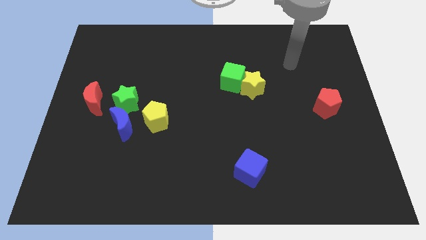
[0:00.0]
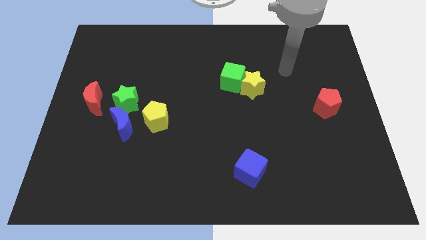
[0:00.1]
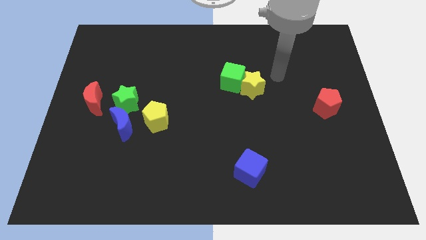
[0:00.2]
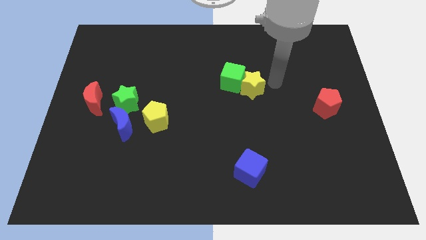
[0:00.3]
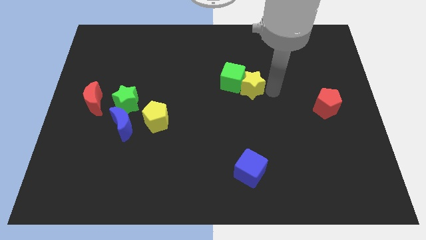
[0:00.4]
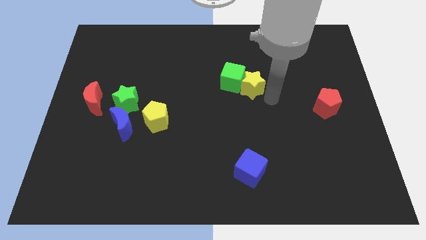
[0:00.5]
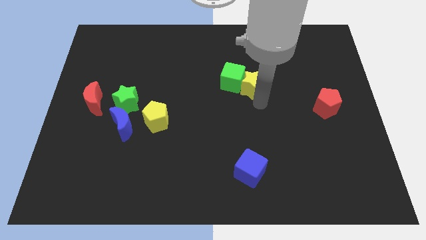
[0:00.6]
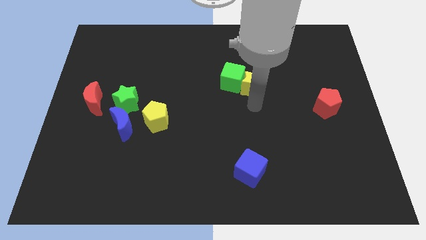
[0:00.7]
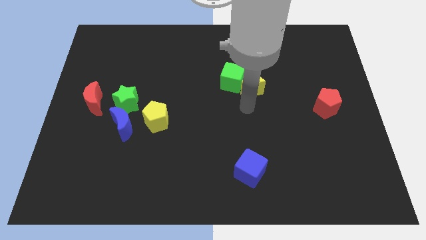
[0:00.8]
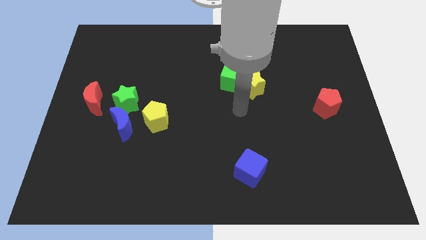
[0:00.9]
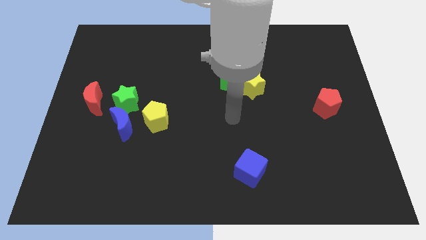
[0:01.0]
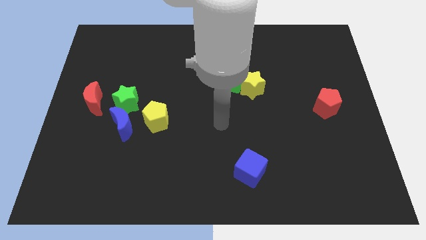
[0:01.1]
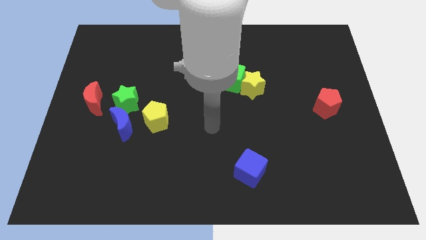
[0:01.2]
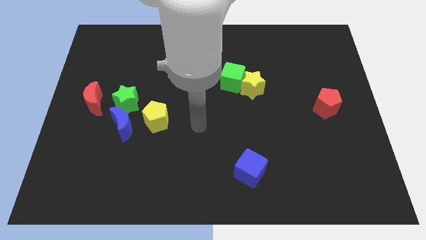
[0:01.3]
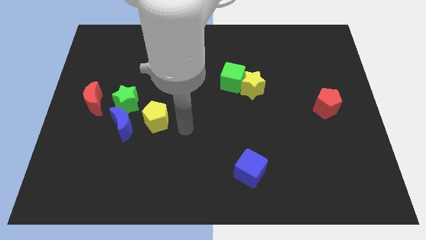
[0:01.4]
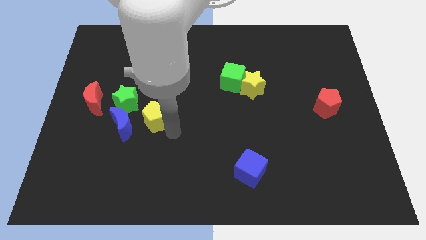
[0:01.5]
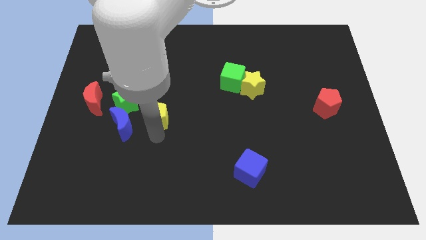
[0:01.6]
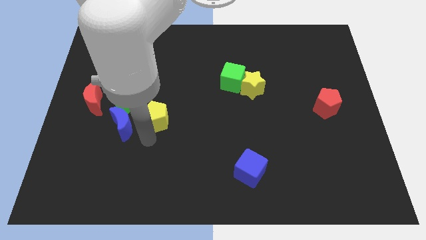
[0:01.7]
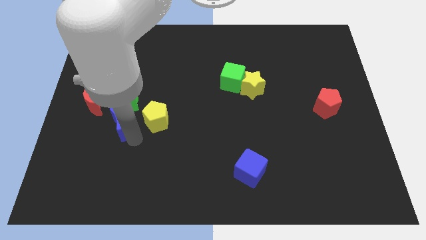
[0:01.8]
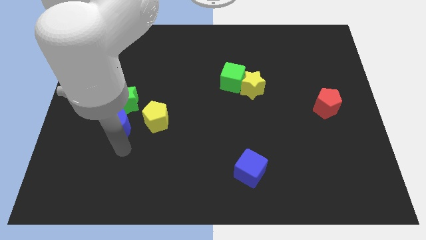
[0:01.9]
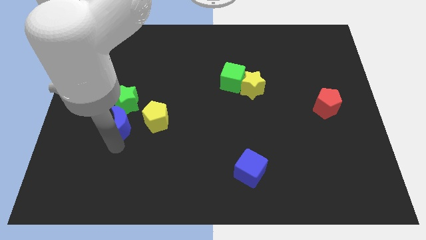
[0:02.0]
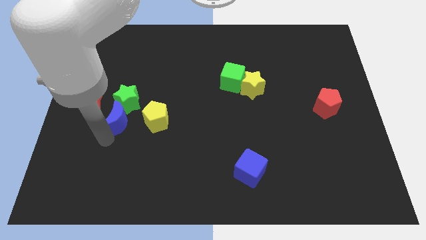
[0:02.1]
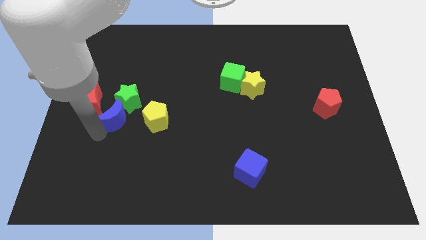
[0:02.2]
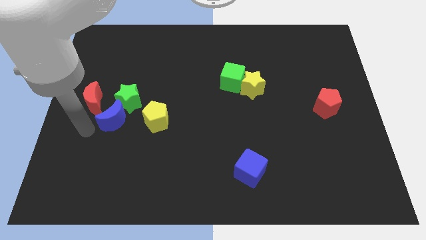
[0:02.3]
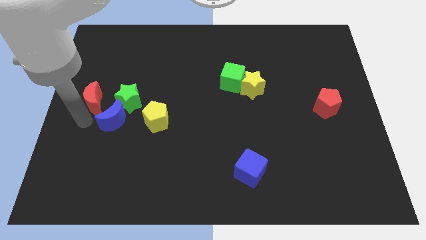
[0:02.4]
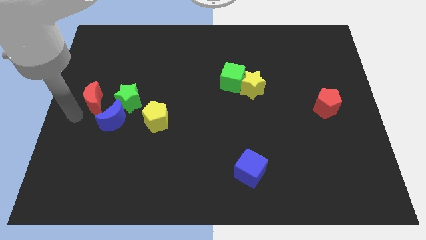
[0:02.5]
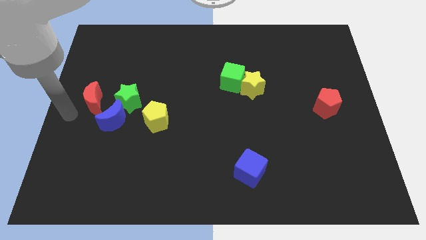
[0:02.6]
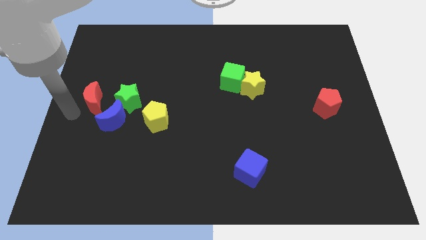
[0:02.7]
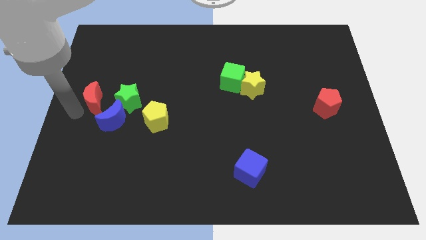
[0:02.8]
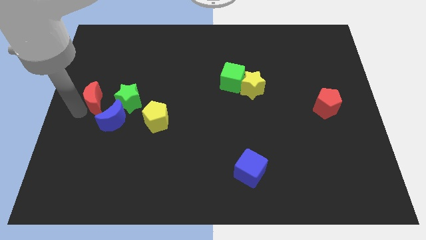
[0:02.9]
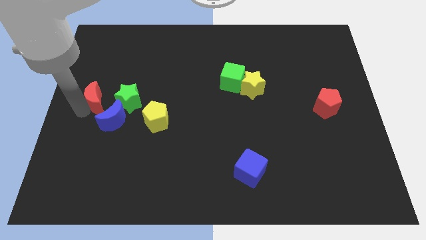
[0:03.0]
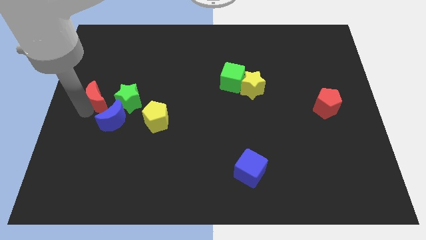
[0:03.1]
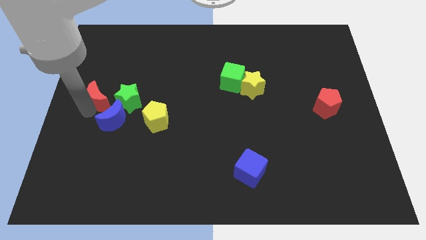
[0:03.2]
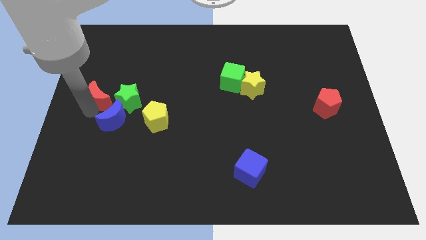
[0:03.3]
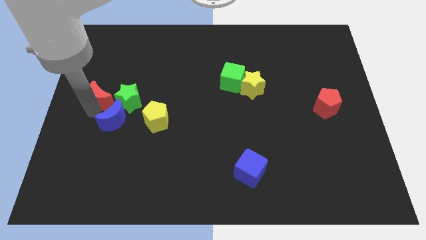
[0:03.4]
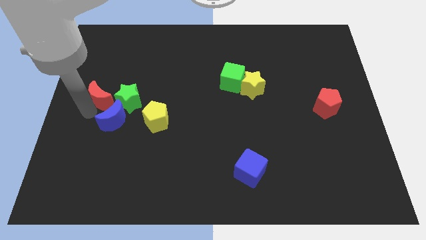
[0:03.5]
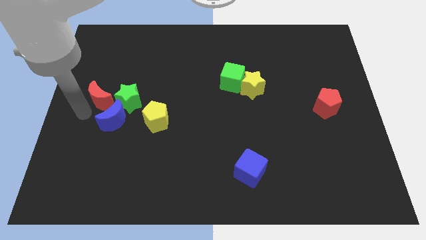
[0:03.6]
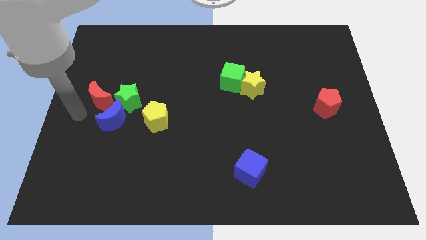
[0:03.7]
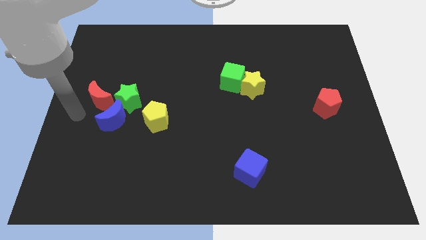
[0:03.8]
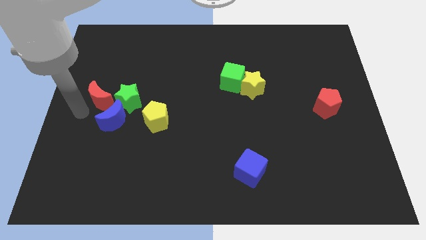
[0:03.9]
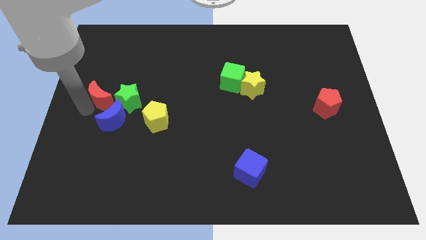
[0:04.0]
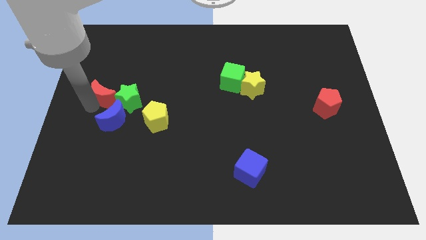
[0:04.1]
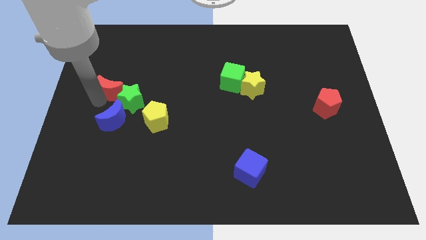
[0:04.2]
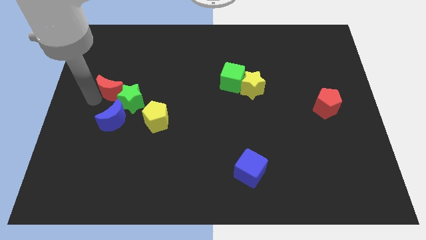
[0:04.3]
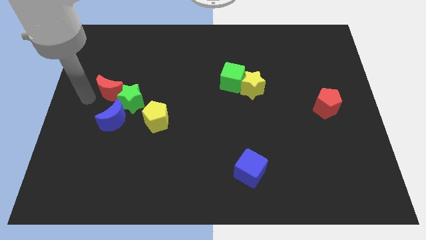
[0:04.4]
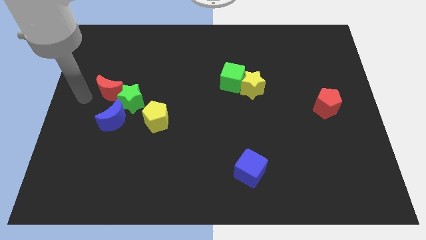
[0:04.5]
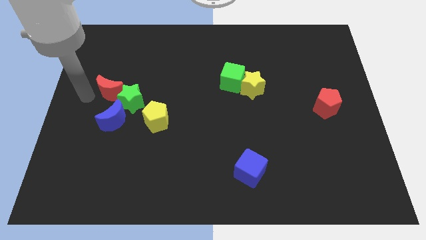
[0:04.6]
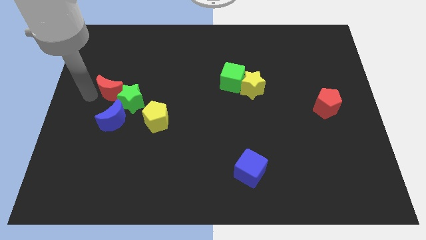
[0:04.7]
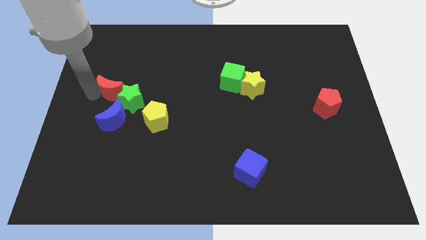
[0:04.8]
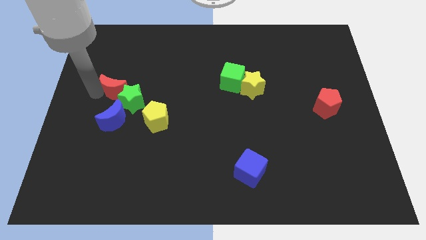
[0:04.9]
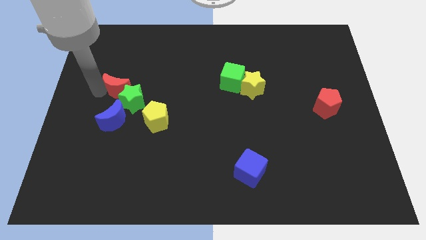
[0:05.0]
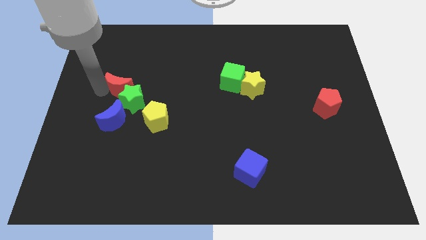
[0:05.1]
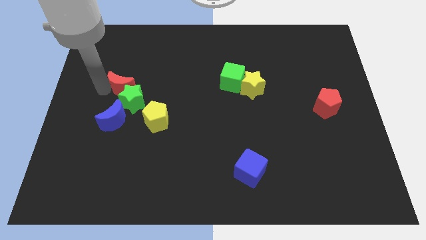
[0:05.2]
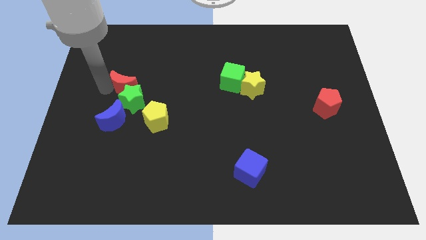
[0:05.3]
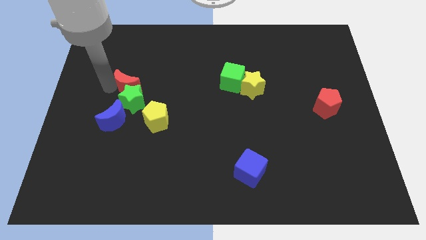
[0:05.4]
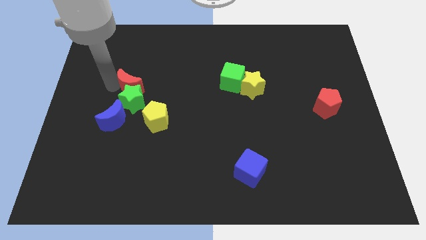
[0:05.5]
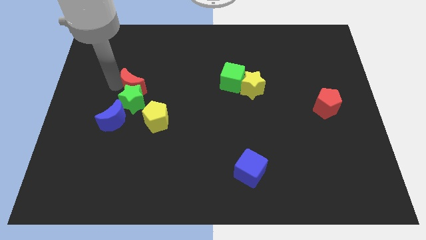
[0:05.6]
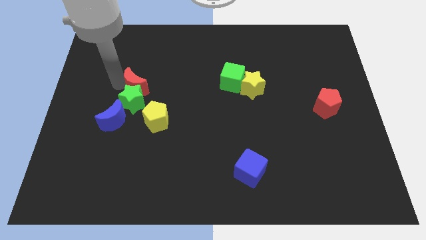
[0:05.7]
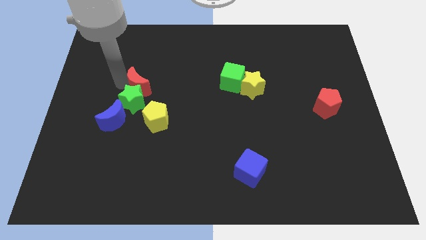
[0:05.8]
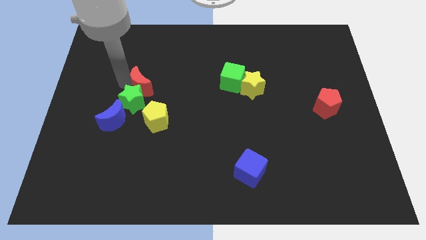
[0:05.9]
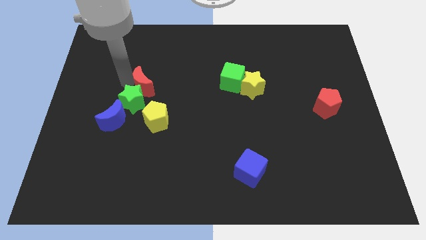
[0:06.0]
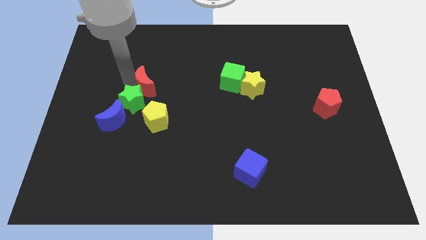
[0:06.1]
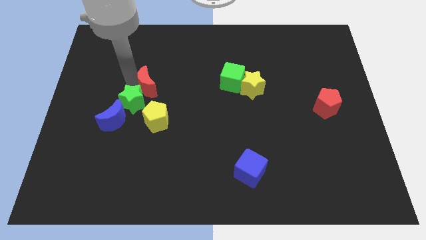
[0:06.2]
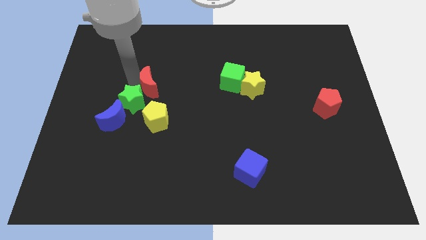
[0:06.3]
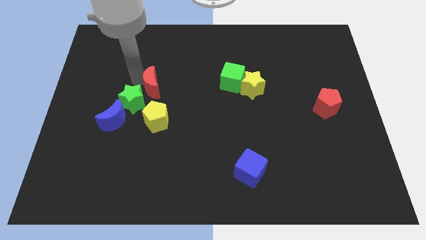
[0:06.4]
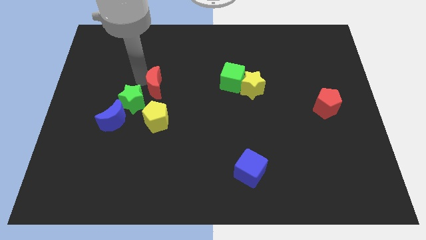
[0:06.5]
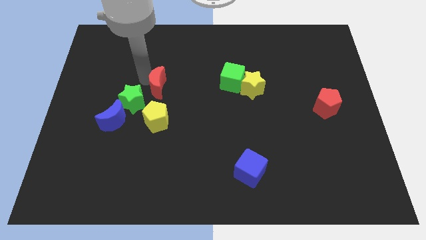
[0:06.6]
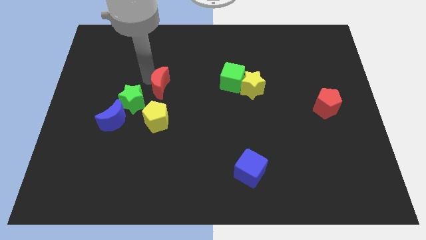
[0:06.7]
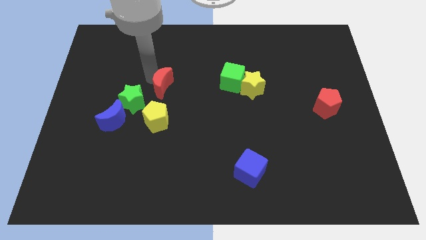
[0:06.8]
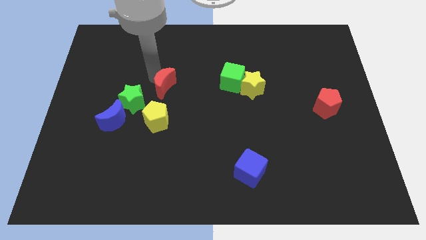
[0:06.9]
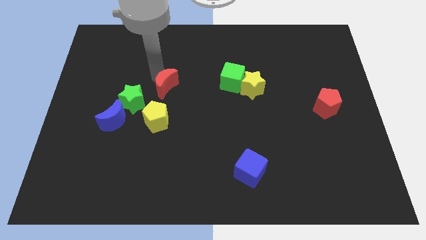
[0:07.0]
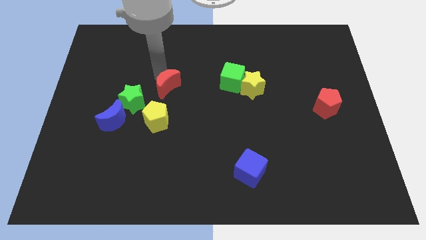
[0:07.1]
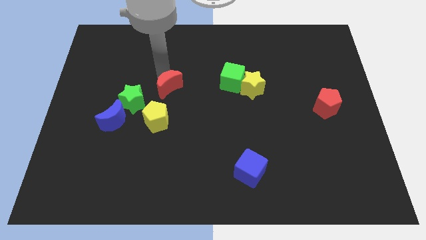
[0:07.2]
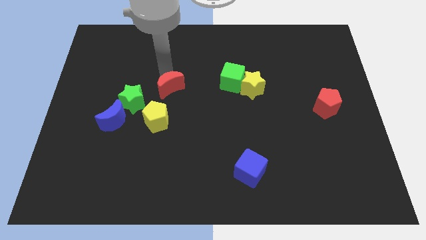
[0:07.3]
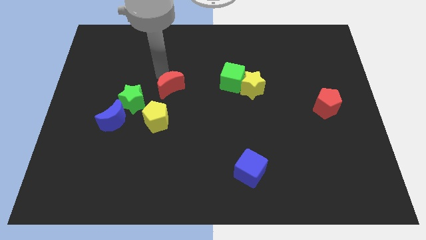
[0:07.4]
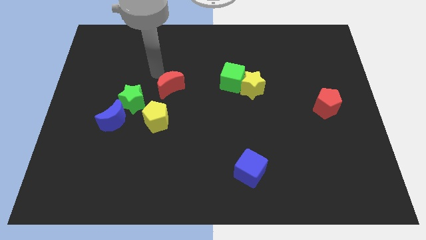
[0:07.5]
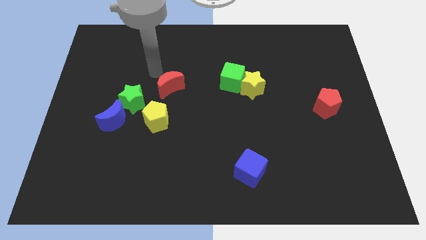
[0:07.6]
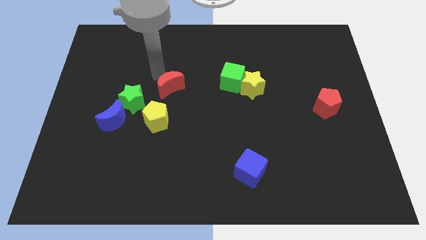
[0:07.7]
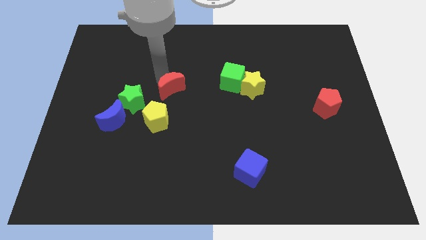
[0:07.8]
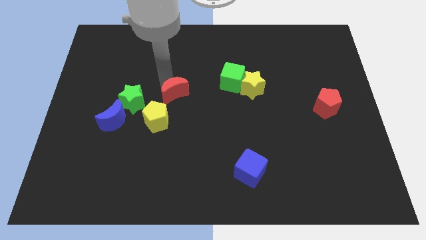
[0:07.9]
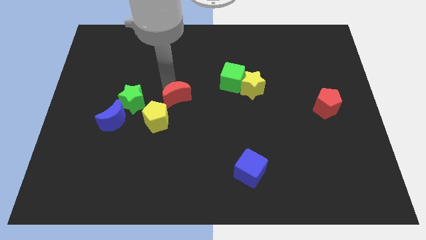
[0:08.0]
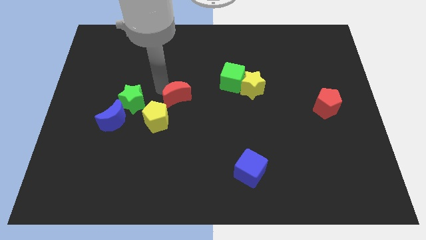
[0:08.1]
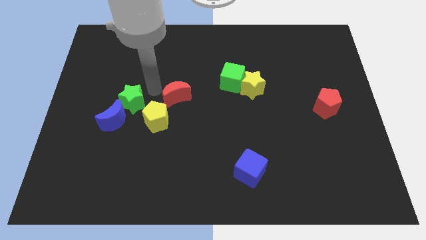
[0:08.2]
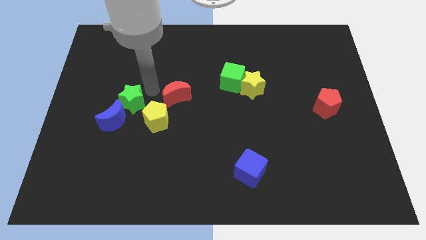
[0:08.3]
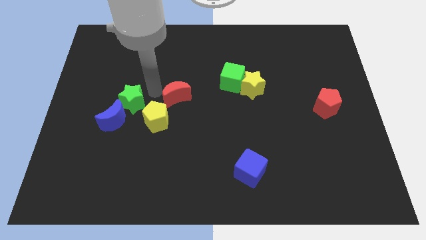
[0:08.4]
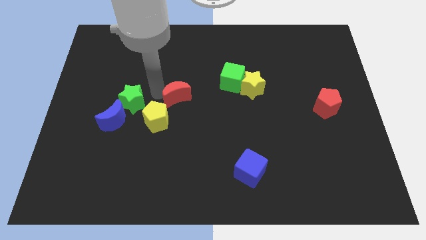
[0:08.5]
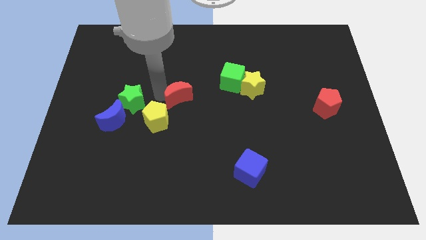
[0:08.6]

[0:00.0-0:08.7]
move the red moon to the right

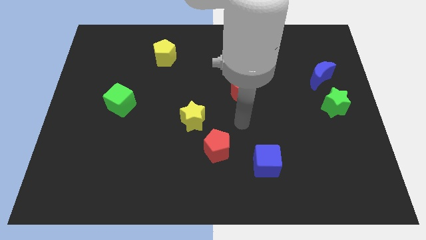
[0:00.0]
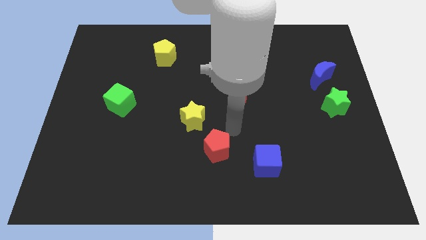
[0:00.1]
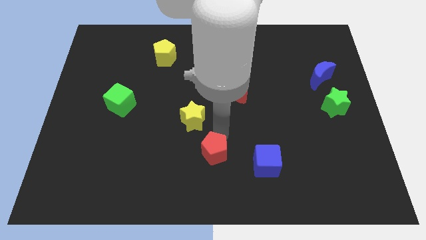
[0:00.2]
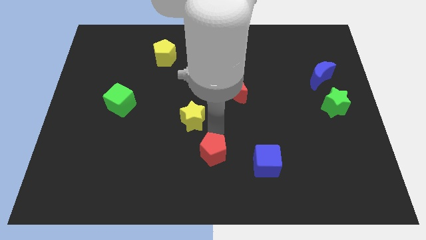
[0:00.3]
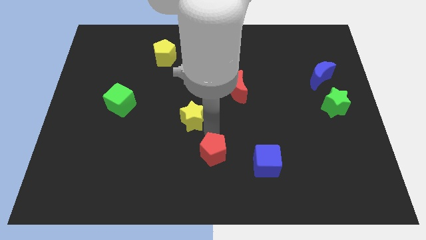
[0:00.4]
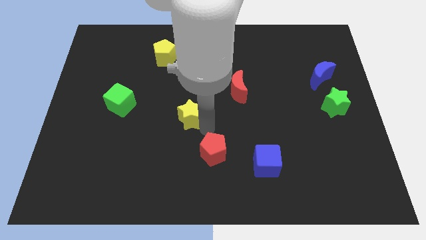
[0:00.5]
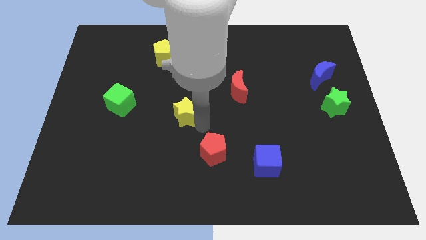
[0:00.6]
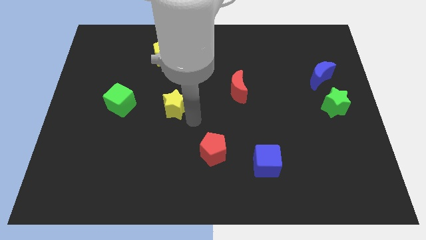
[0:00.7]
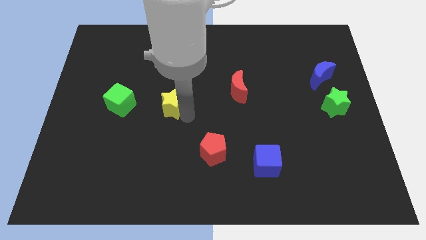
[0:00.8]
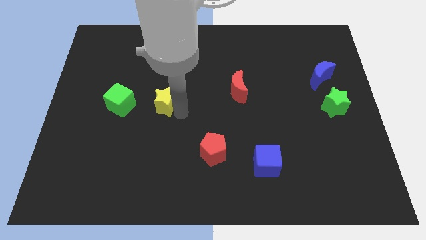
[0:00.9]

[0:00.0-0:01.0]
slide the yellow star upwards and to the left slightly
